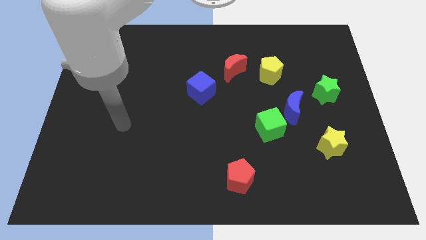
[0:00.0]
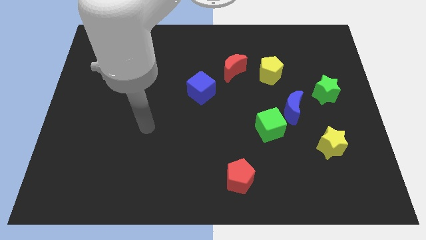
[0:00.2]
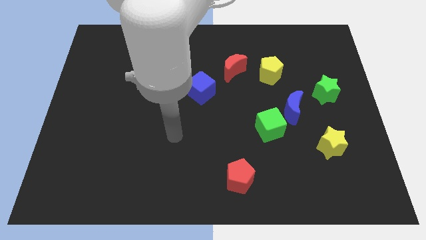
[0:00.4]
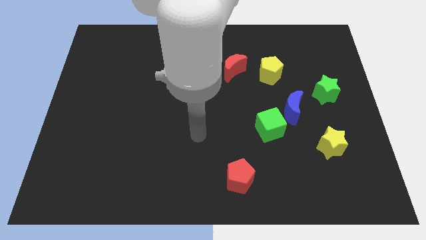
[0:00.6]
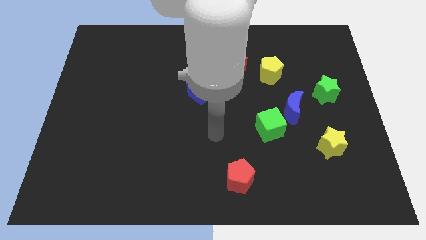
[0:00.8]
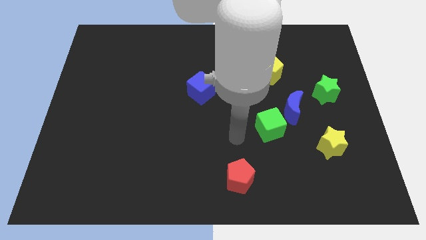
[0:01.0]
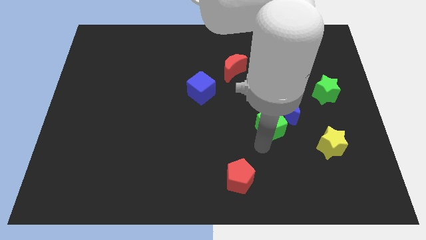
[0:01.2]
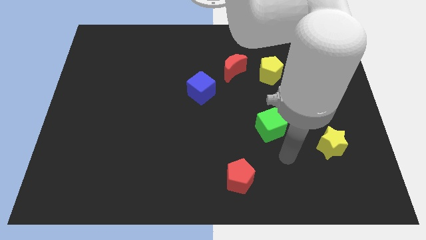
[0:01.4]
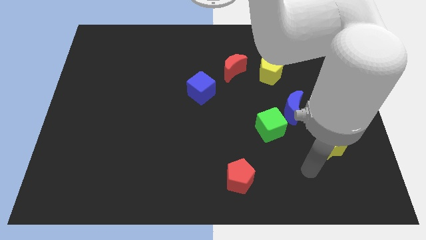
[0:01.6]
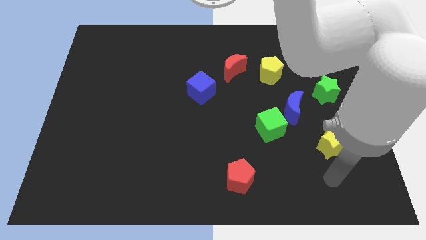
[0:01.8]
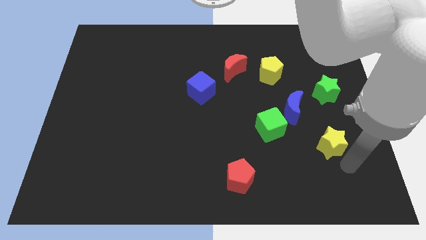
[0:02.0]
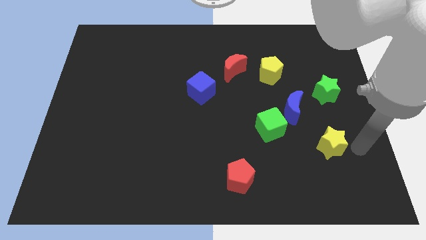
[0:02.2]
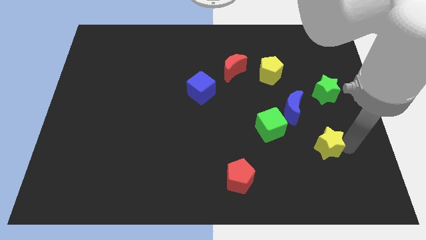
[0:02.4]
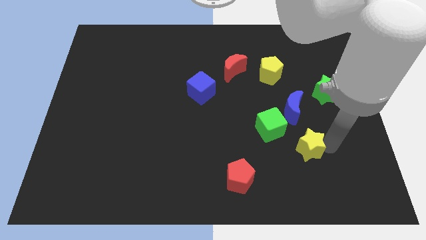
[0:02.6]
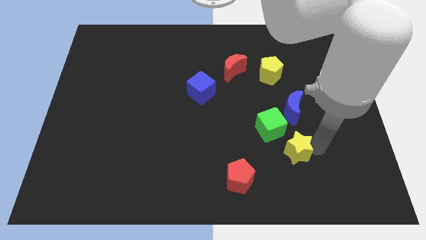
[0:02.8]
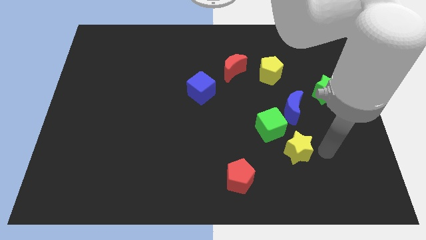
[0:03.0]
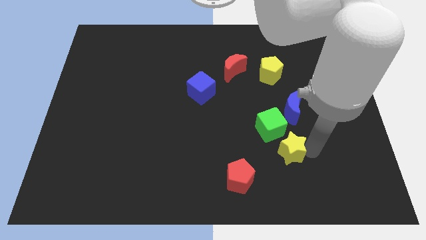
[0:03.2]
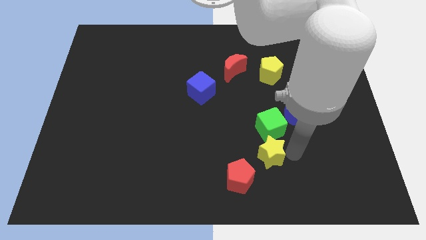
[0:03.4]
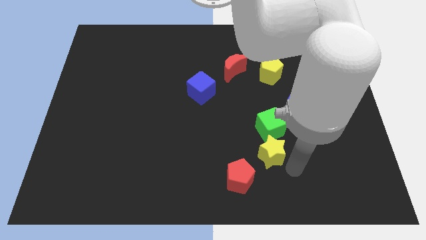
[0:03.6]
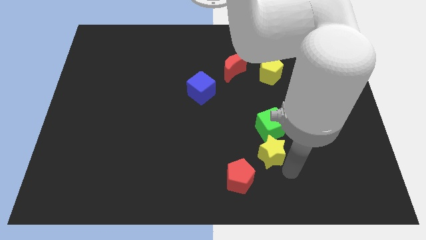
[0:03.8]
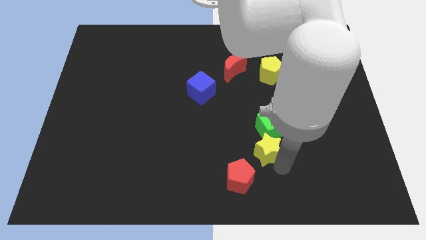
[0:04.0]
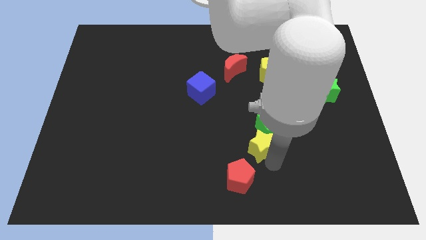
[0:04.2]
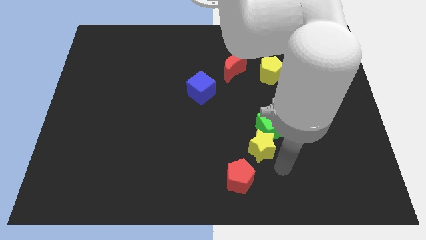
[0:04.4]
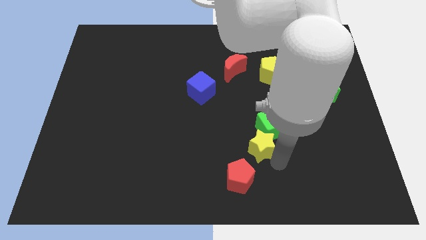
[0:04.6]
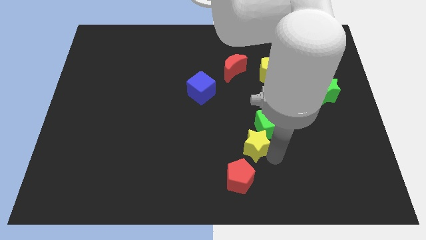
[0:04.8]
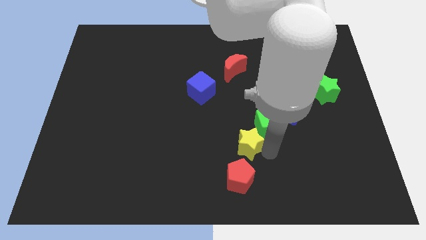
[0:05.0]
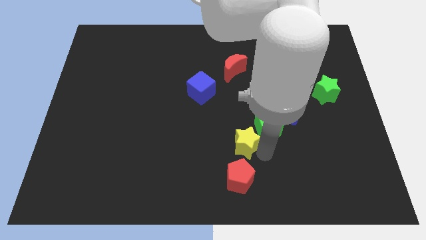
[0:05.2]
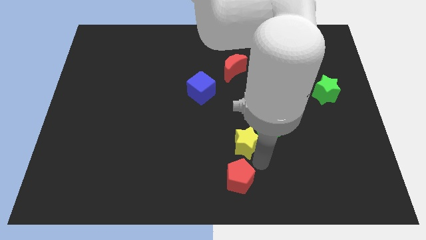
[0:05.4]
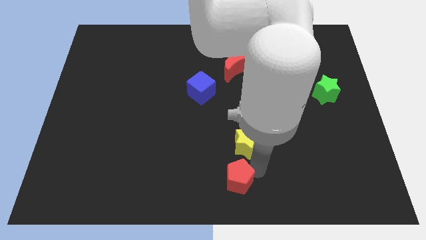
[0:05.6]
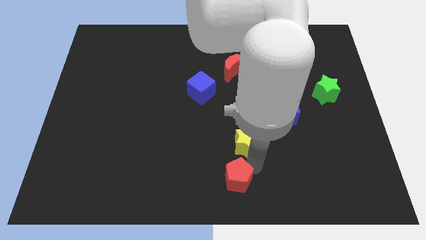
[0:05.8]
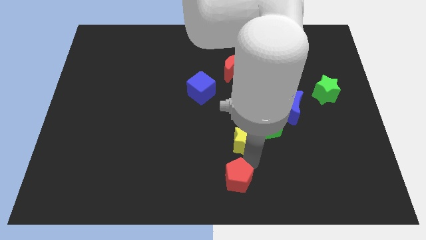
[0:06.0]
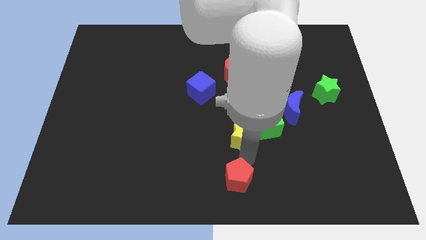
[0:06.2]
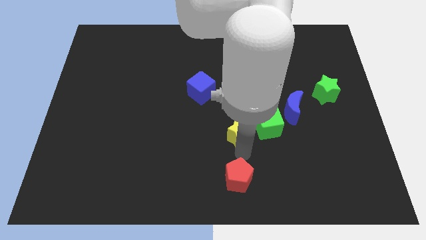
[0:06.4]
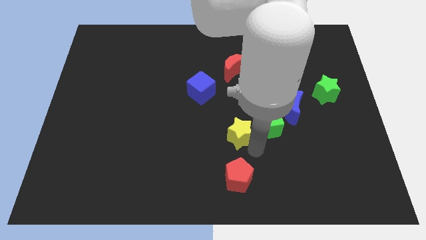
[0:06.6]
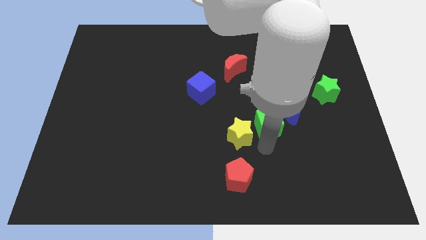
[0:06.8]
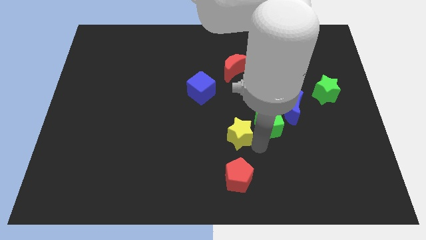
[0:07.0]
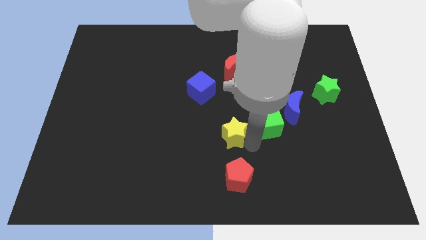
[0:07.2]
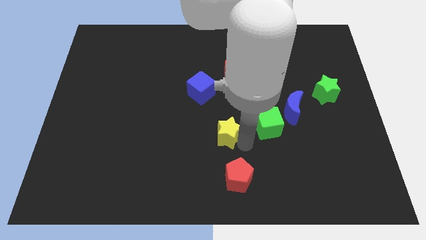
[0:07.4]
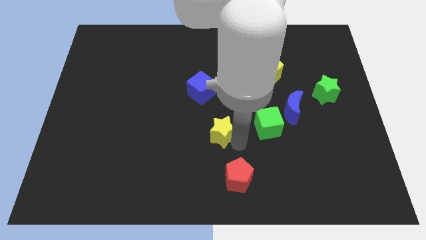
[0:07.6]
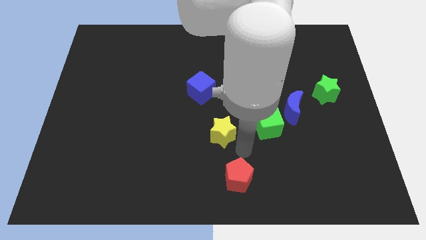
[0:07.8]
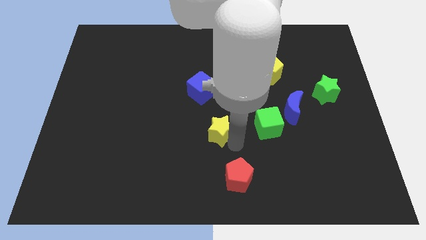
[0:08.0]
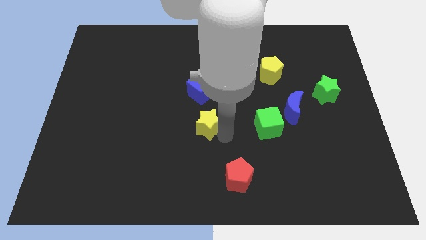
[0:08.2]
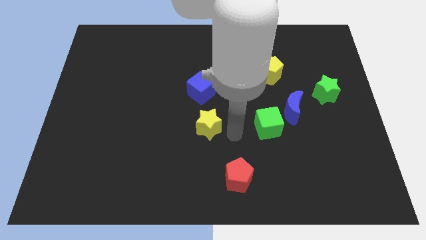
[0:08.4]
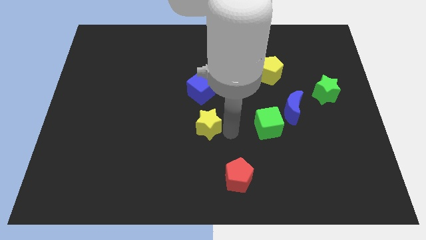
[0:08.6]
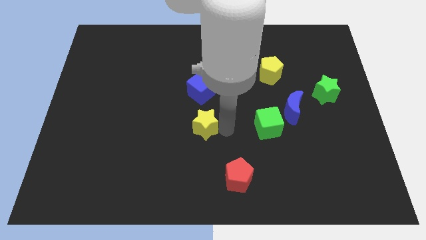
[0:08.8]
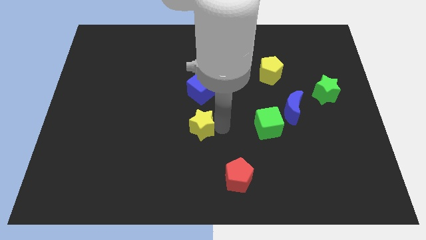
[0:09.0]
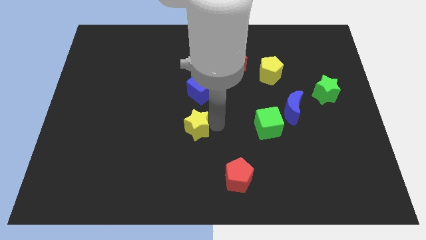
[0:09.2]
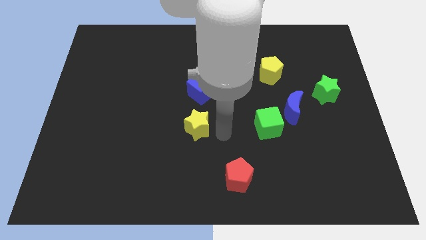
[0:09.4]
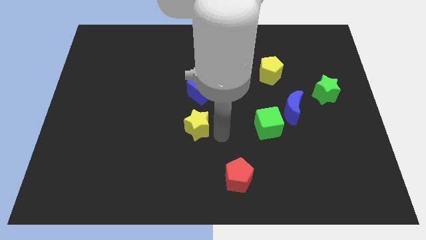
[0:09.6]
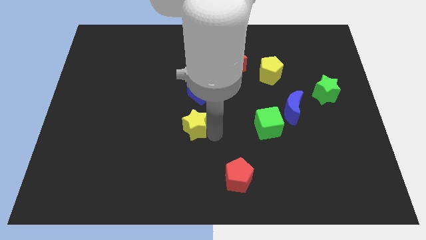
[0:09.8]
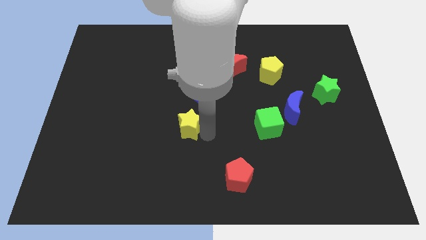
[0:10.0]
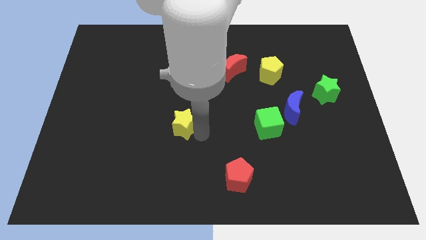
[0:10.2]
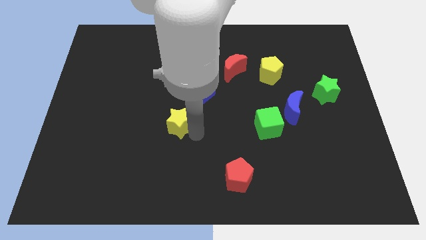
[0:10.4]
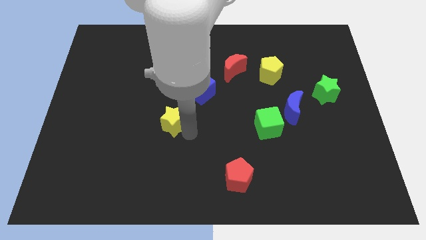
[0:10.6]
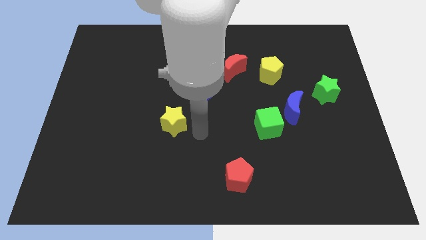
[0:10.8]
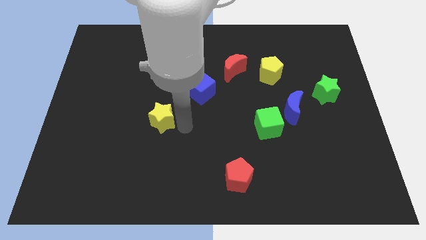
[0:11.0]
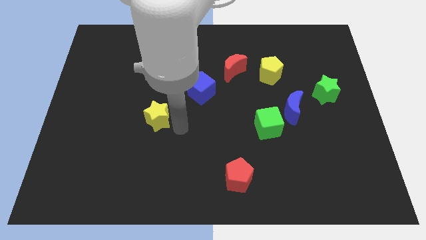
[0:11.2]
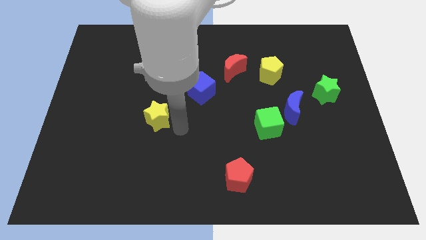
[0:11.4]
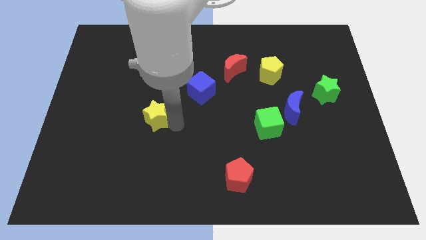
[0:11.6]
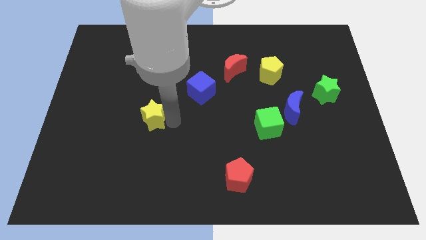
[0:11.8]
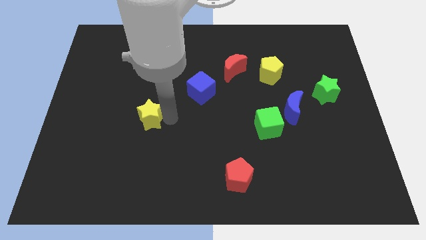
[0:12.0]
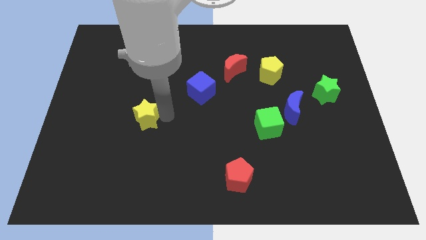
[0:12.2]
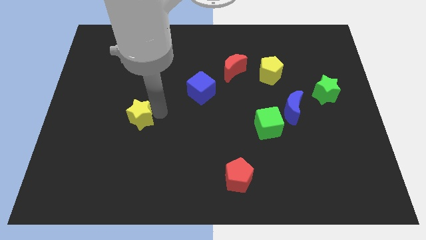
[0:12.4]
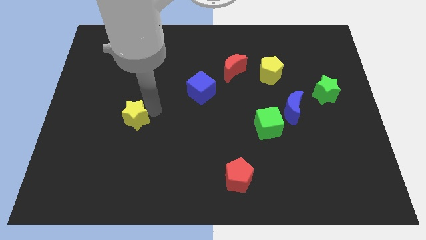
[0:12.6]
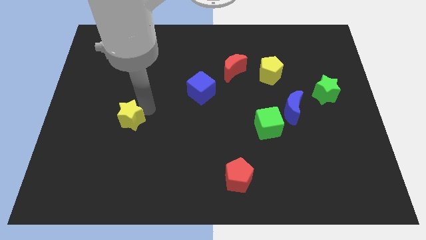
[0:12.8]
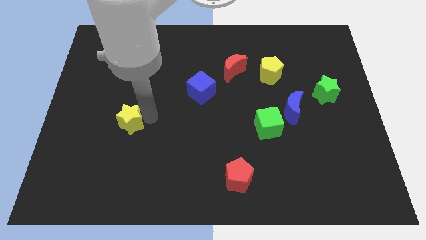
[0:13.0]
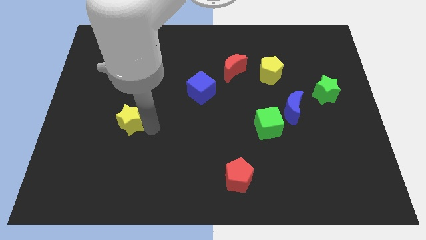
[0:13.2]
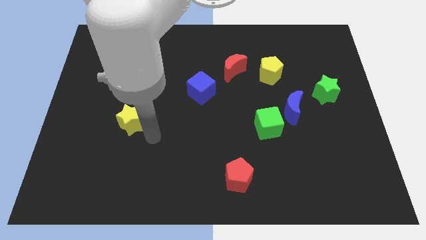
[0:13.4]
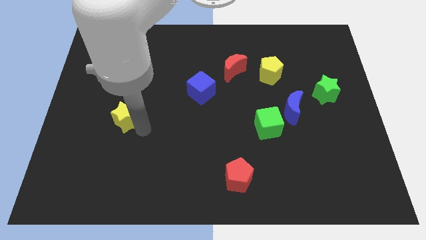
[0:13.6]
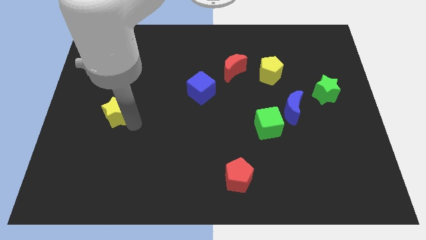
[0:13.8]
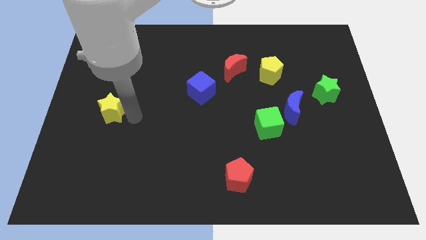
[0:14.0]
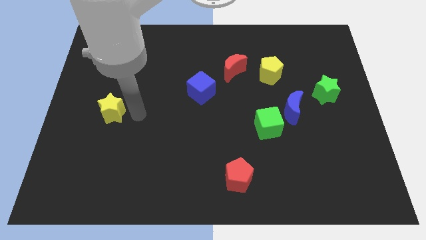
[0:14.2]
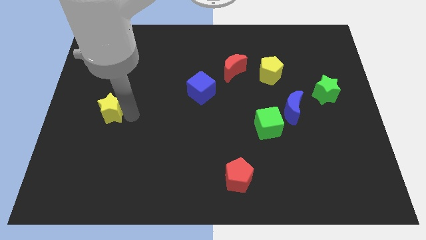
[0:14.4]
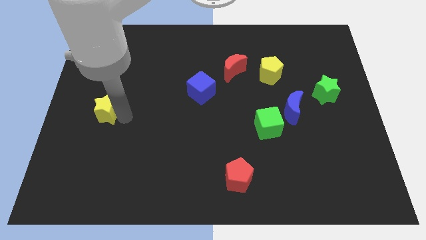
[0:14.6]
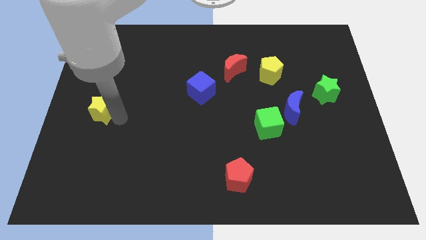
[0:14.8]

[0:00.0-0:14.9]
move the yellow star to the left side
